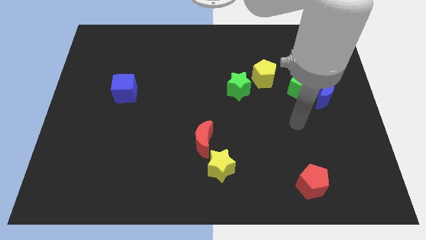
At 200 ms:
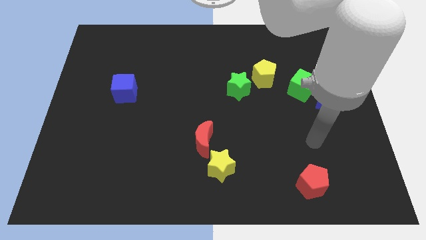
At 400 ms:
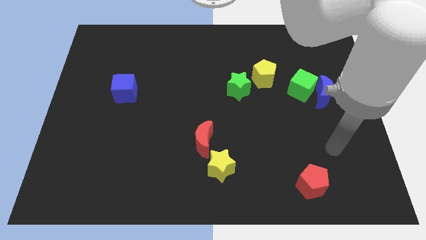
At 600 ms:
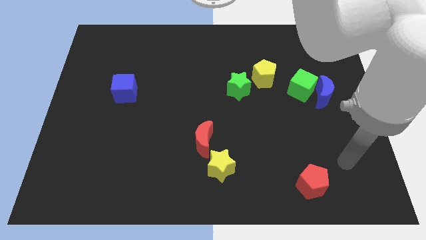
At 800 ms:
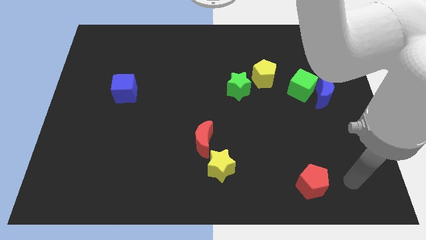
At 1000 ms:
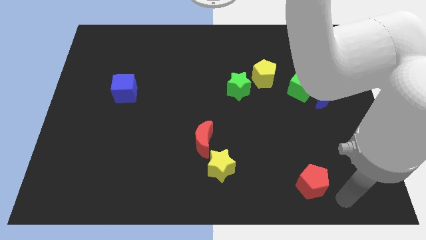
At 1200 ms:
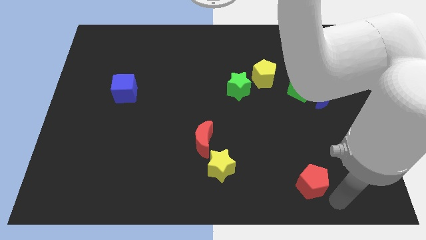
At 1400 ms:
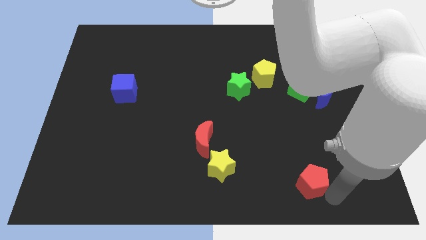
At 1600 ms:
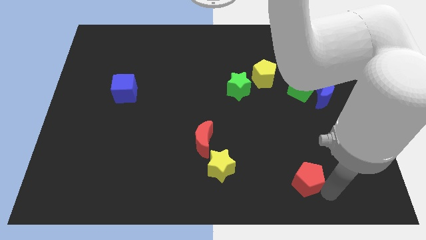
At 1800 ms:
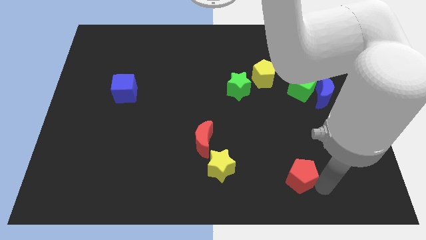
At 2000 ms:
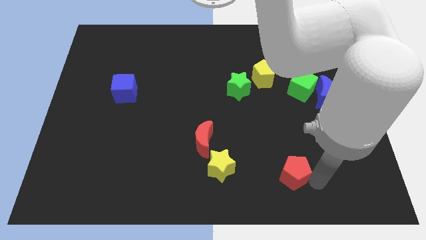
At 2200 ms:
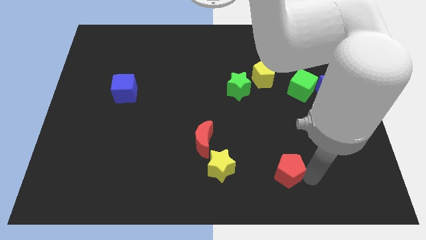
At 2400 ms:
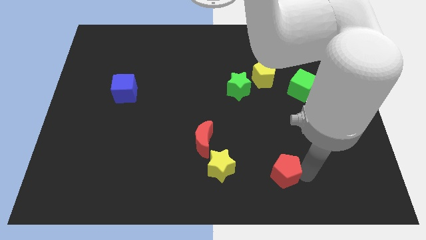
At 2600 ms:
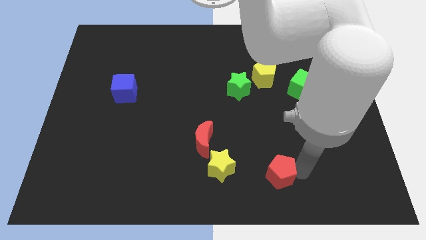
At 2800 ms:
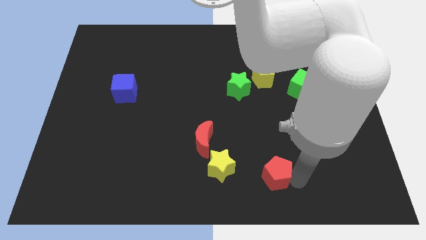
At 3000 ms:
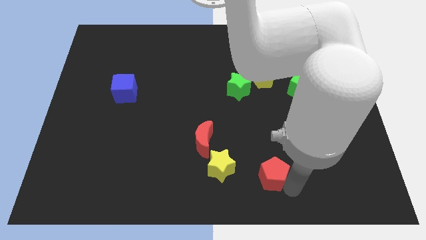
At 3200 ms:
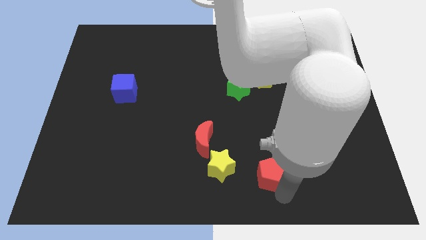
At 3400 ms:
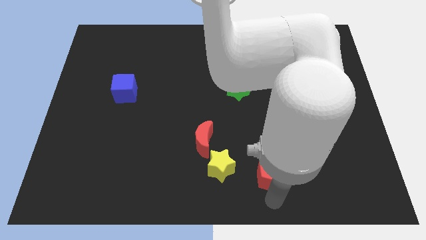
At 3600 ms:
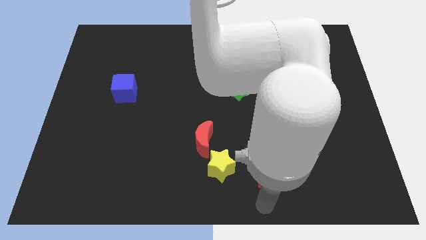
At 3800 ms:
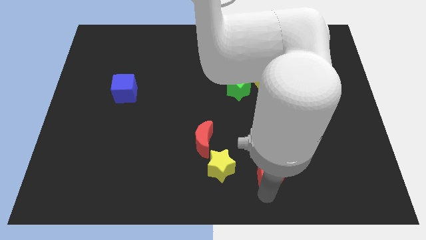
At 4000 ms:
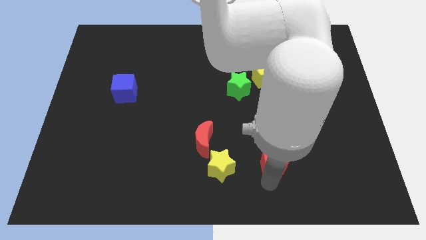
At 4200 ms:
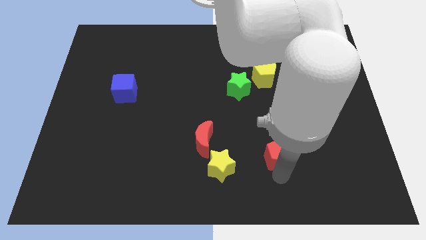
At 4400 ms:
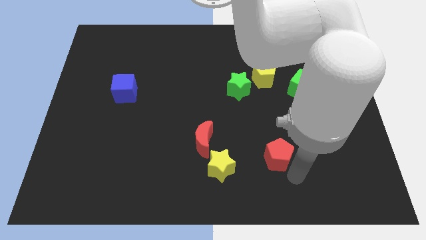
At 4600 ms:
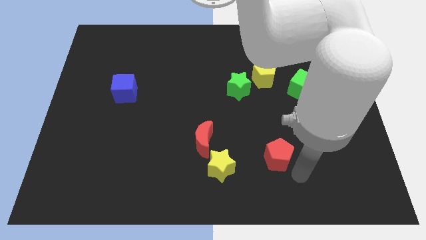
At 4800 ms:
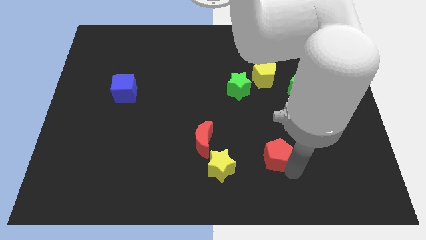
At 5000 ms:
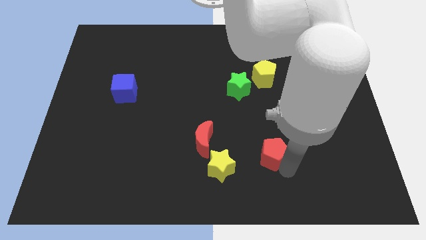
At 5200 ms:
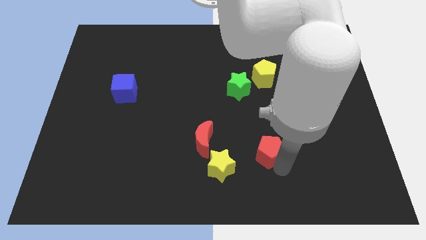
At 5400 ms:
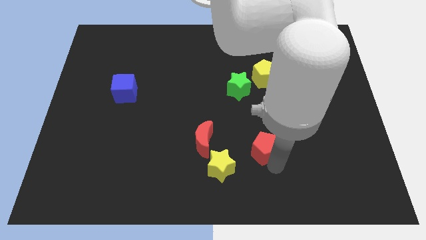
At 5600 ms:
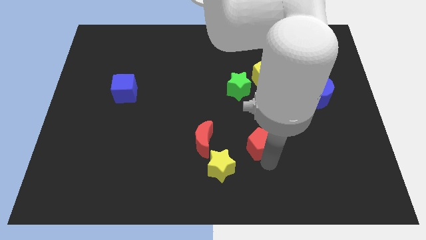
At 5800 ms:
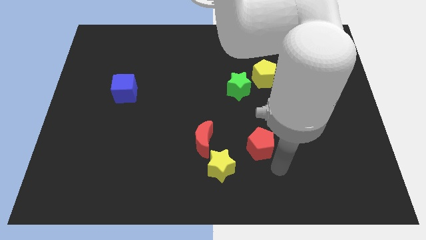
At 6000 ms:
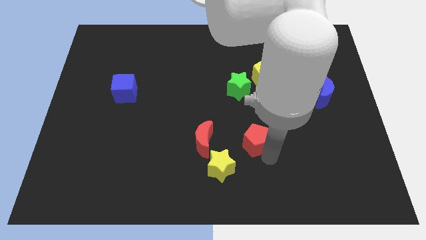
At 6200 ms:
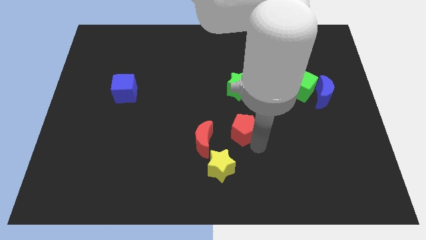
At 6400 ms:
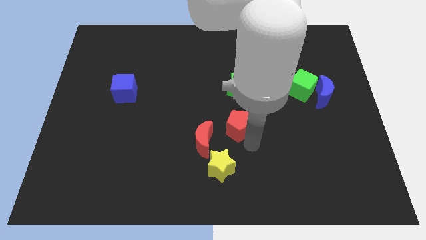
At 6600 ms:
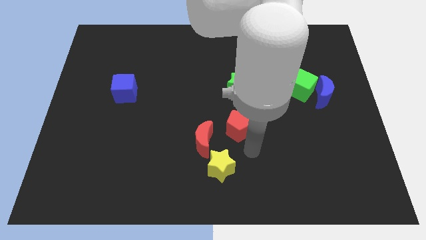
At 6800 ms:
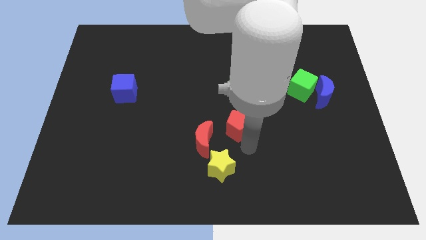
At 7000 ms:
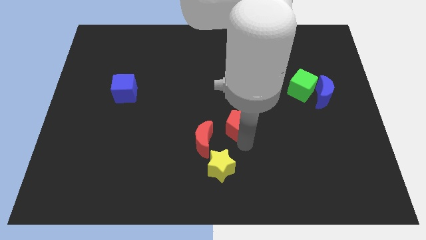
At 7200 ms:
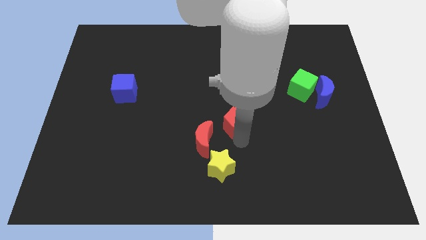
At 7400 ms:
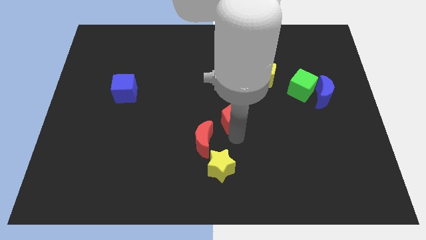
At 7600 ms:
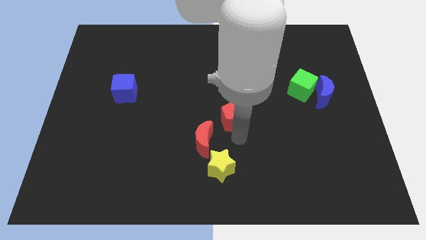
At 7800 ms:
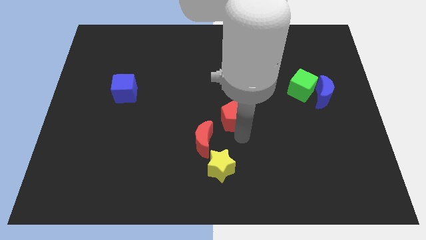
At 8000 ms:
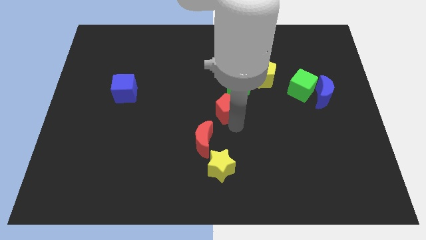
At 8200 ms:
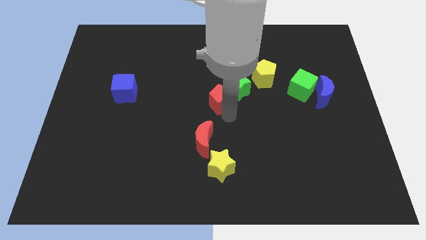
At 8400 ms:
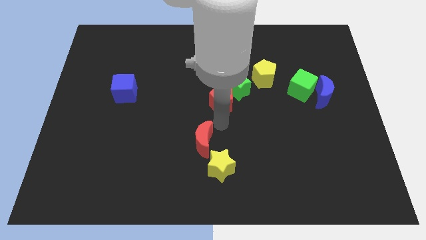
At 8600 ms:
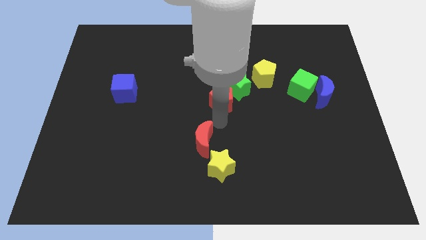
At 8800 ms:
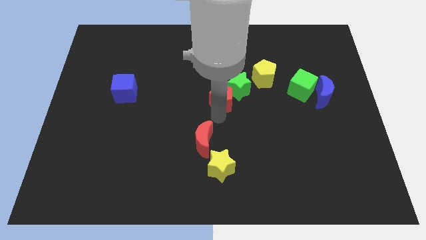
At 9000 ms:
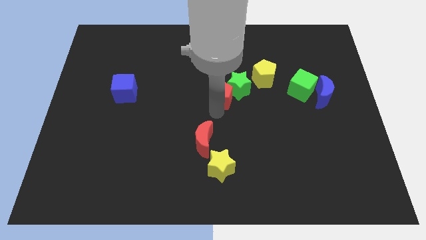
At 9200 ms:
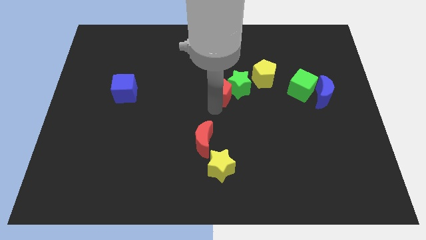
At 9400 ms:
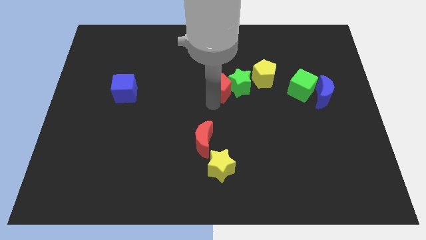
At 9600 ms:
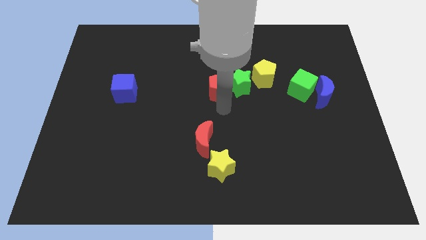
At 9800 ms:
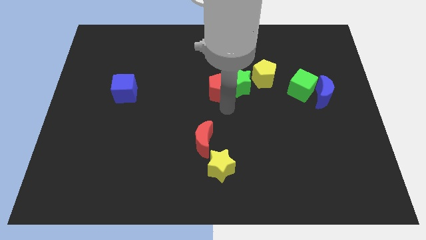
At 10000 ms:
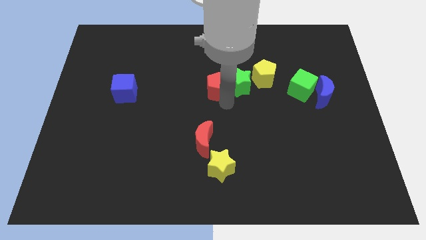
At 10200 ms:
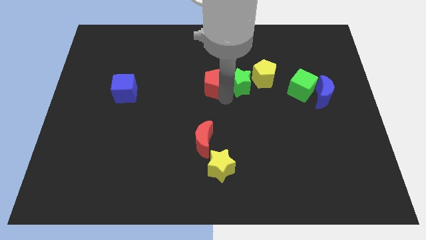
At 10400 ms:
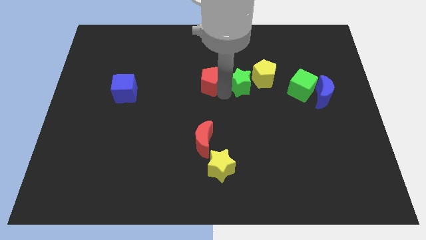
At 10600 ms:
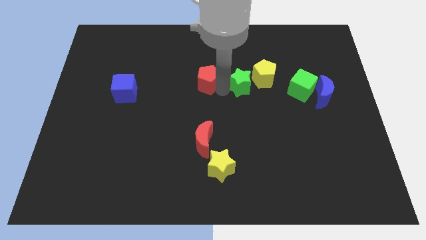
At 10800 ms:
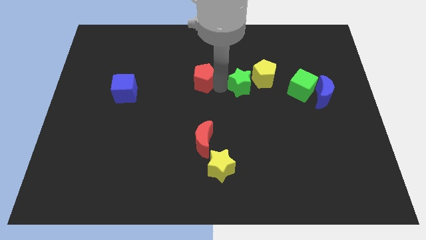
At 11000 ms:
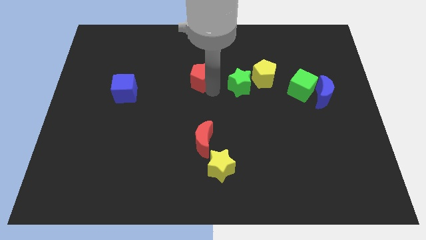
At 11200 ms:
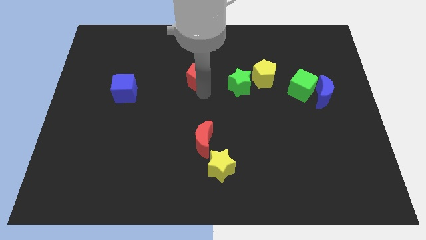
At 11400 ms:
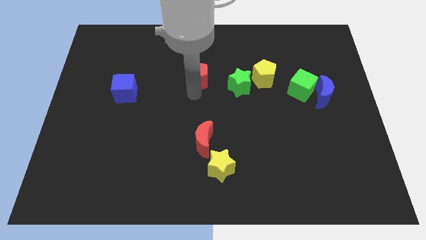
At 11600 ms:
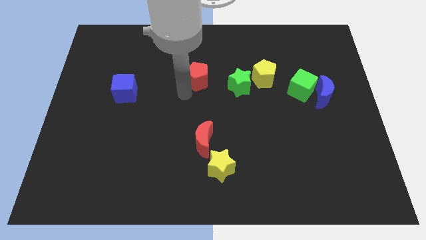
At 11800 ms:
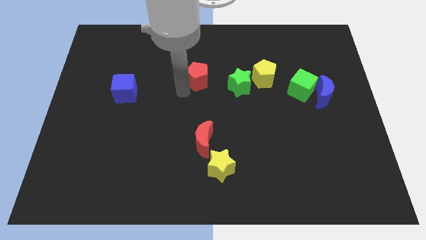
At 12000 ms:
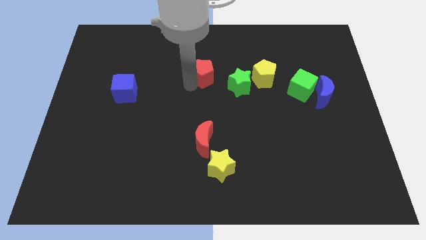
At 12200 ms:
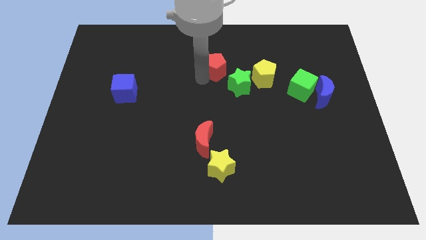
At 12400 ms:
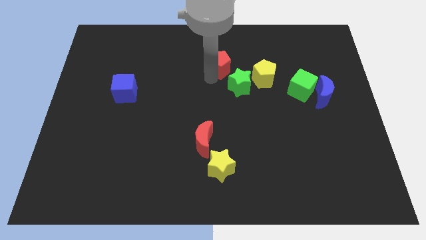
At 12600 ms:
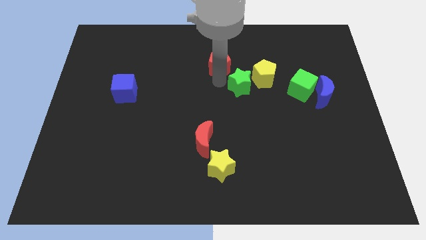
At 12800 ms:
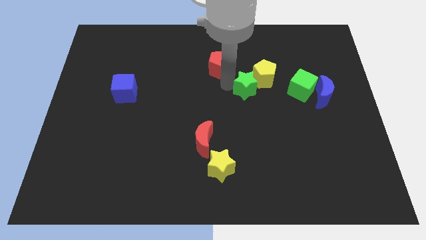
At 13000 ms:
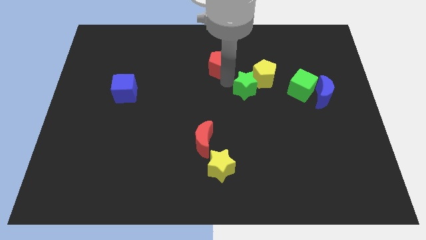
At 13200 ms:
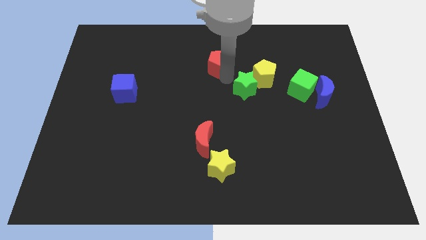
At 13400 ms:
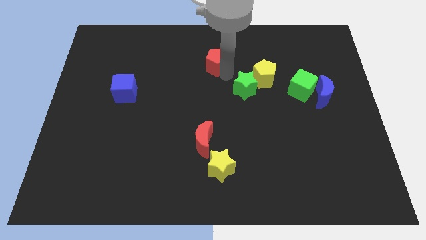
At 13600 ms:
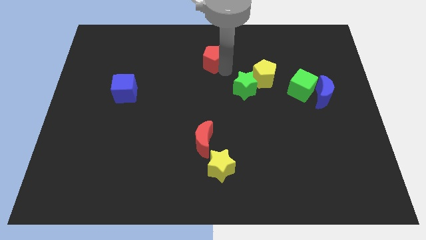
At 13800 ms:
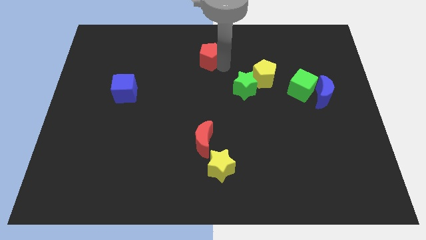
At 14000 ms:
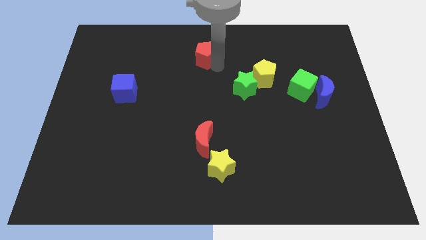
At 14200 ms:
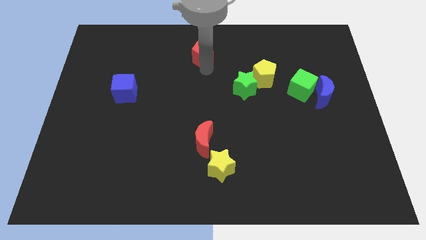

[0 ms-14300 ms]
move the red pentagon to the top

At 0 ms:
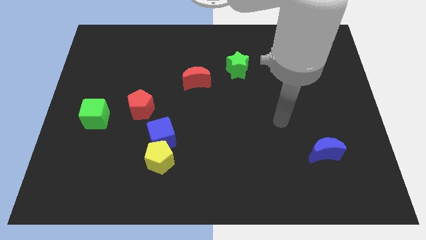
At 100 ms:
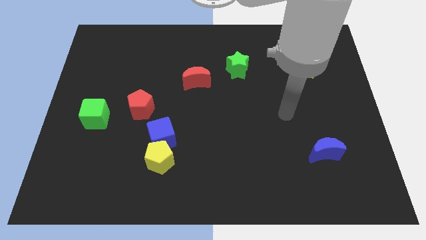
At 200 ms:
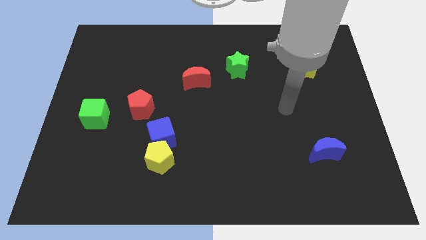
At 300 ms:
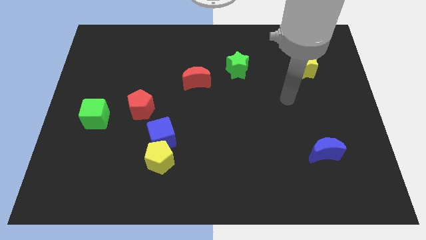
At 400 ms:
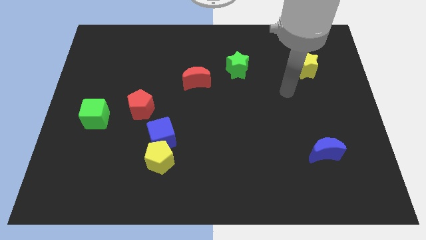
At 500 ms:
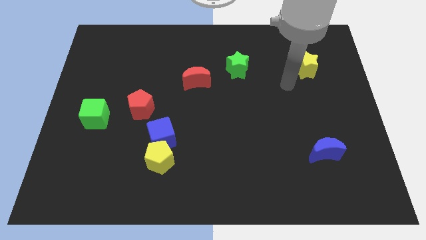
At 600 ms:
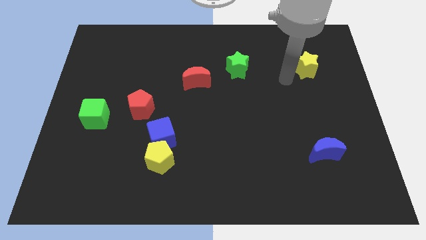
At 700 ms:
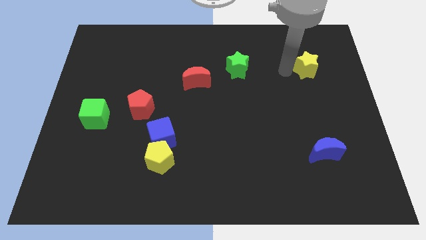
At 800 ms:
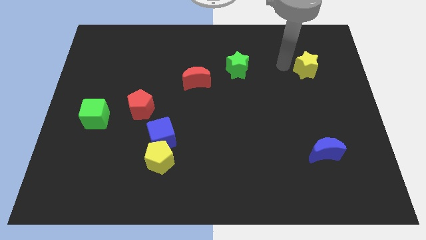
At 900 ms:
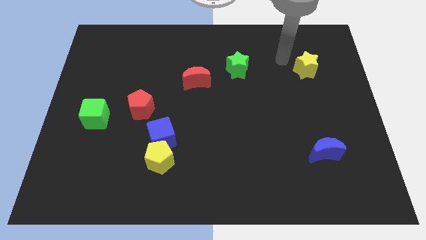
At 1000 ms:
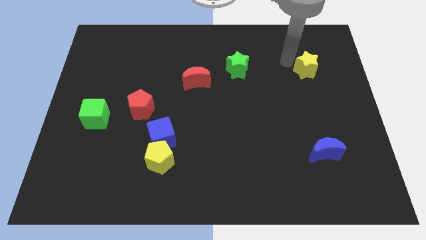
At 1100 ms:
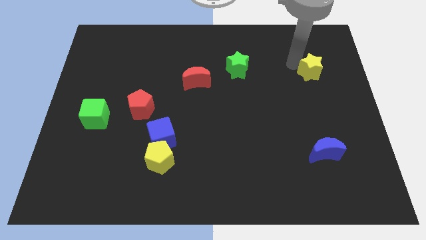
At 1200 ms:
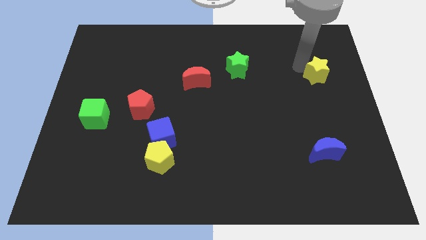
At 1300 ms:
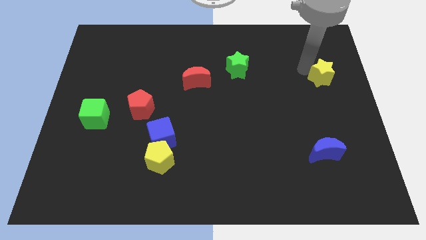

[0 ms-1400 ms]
slide the yellow star to the center right
